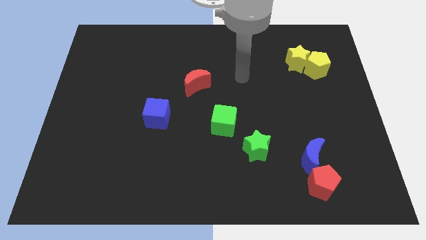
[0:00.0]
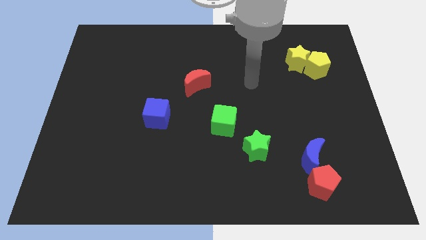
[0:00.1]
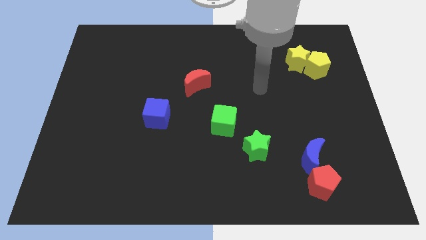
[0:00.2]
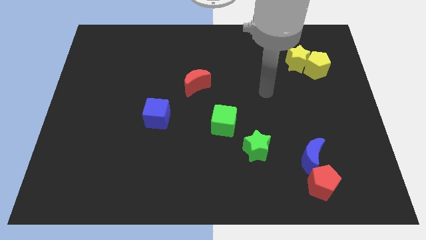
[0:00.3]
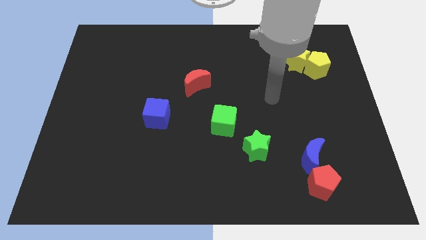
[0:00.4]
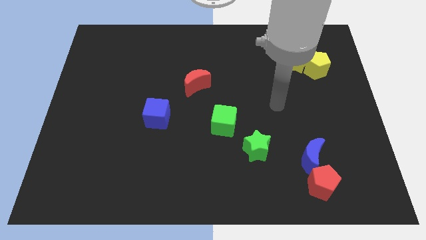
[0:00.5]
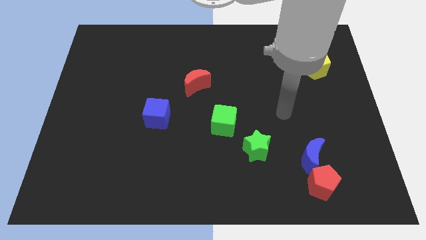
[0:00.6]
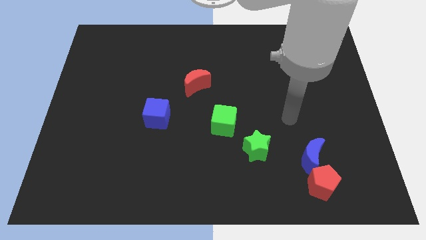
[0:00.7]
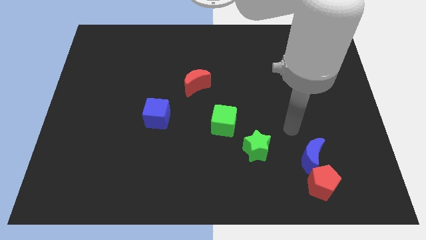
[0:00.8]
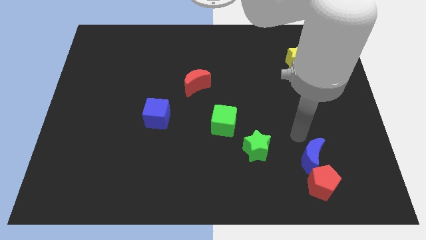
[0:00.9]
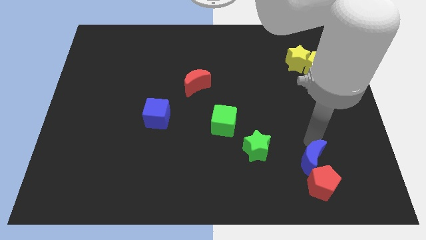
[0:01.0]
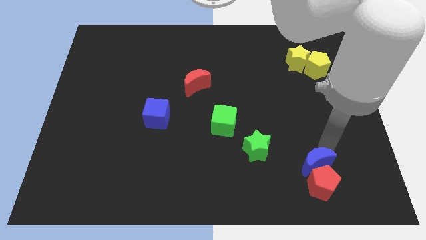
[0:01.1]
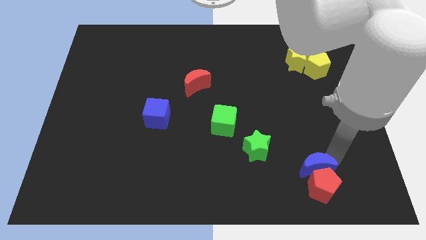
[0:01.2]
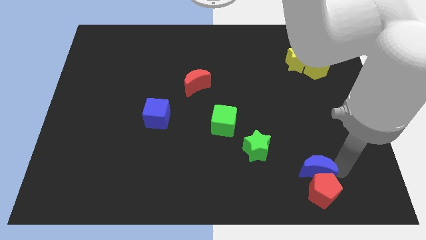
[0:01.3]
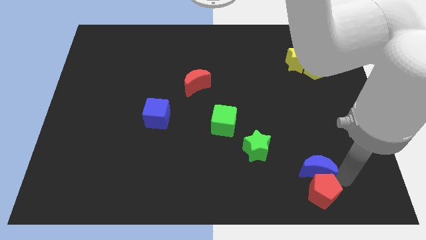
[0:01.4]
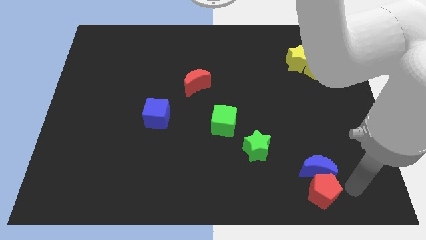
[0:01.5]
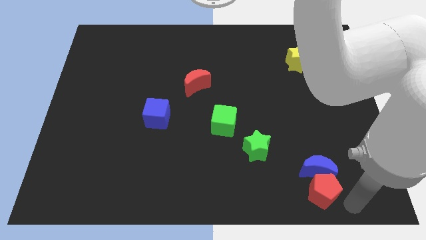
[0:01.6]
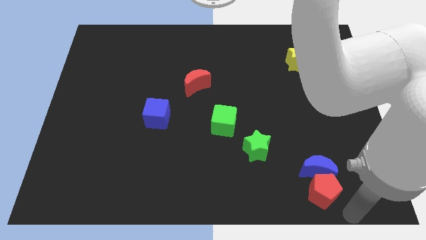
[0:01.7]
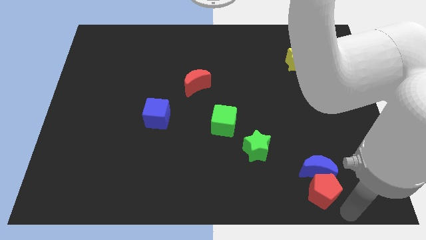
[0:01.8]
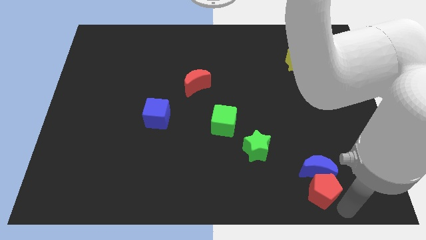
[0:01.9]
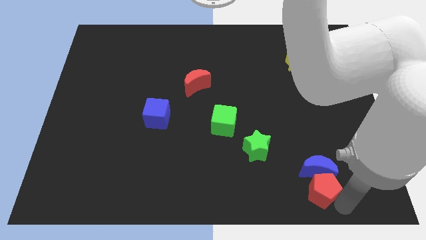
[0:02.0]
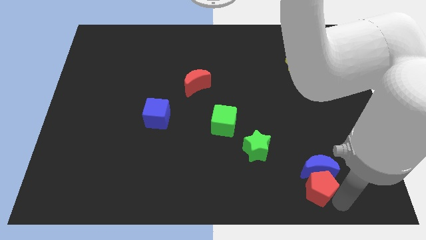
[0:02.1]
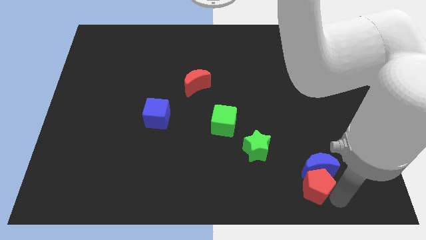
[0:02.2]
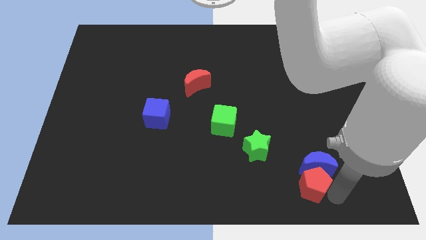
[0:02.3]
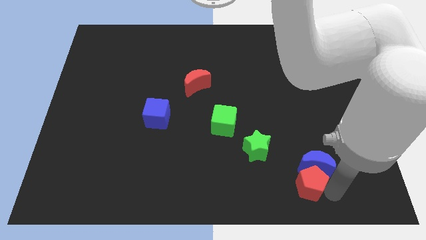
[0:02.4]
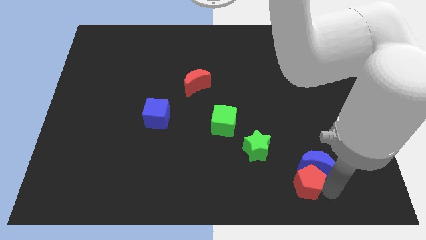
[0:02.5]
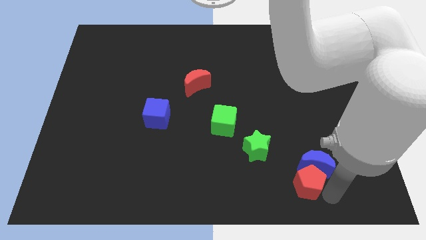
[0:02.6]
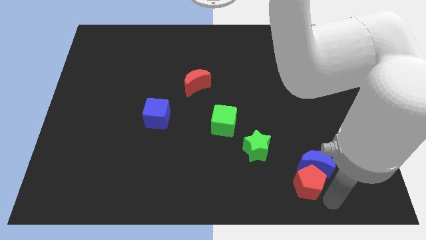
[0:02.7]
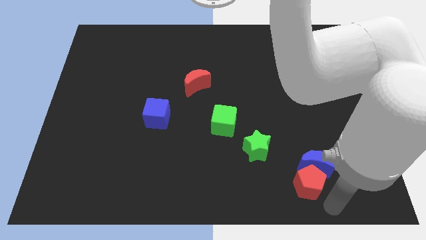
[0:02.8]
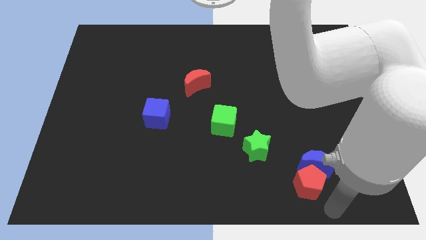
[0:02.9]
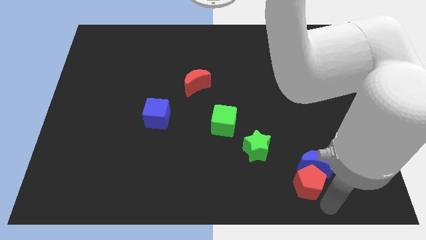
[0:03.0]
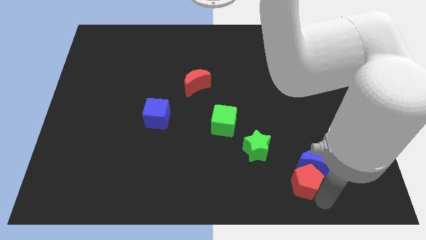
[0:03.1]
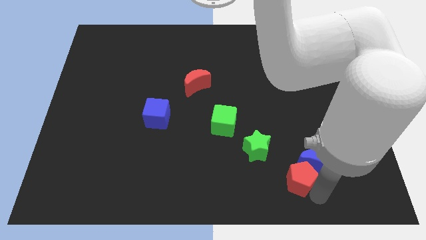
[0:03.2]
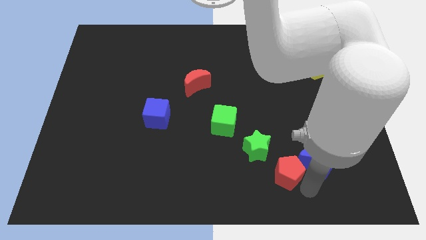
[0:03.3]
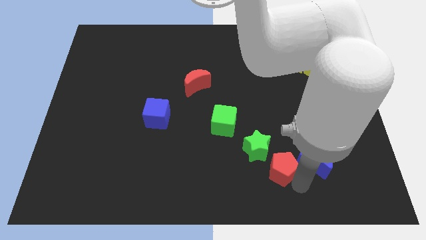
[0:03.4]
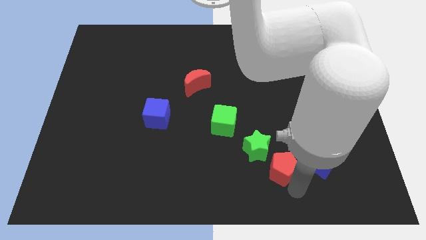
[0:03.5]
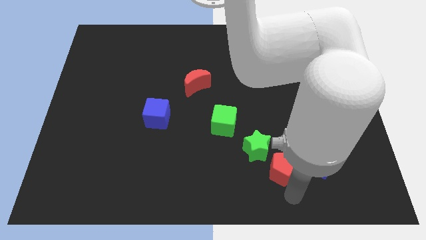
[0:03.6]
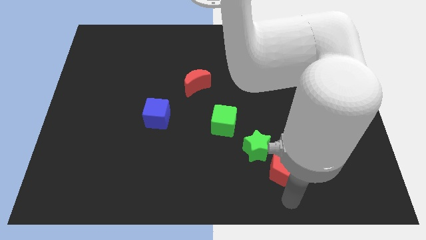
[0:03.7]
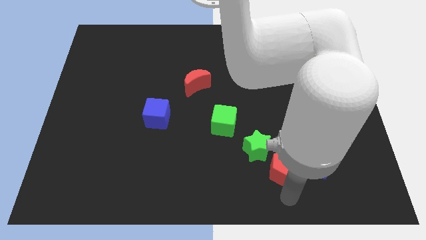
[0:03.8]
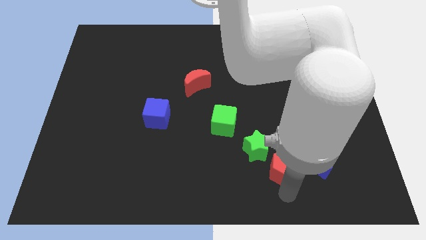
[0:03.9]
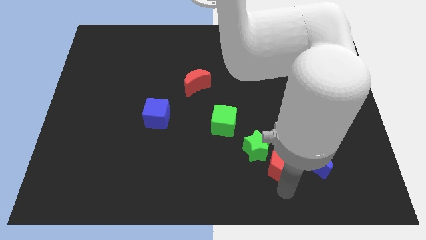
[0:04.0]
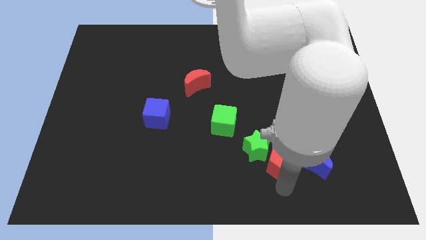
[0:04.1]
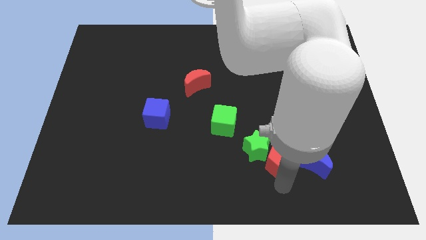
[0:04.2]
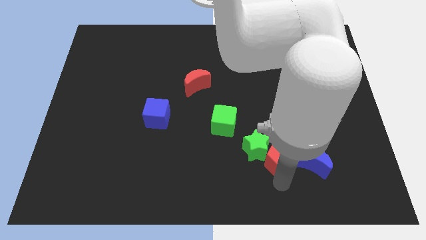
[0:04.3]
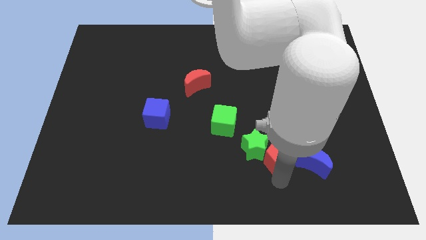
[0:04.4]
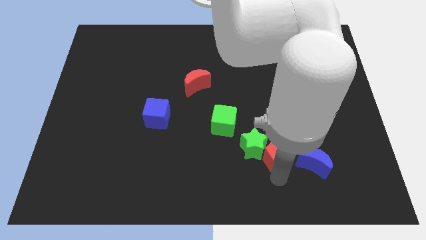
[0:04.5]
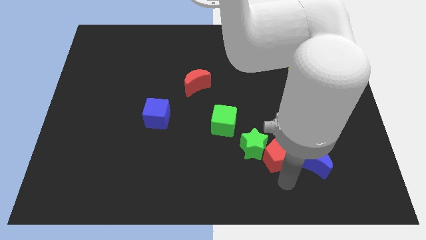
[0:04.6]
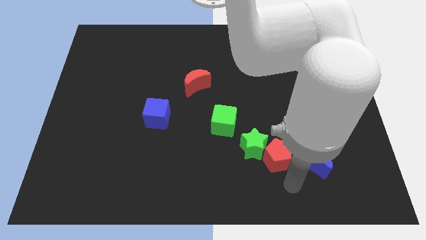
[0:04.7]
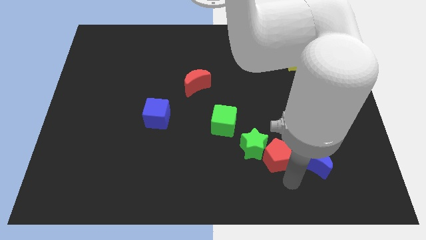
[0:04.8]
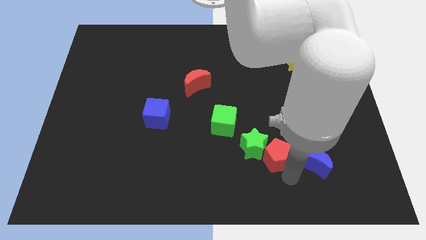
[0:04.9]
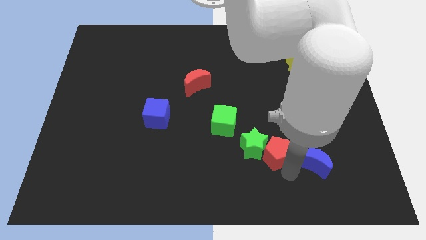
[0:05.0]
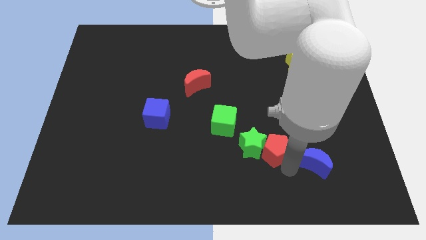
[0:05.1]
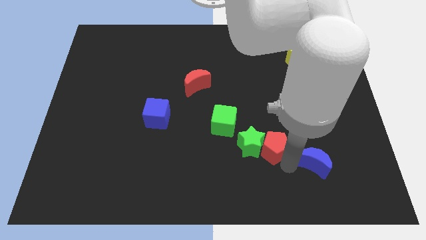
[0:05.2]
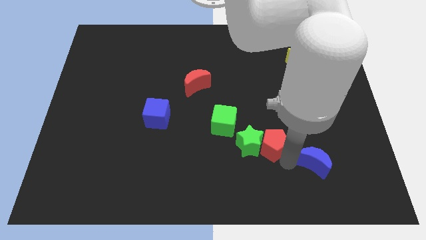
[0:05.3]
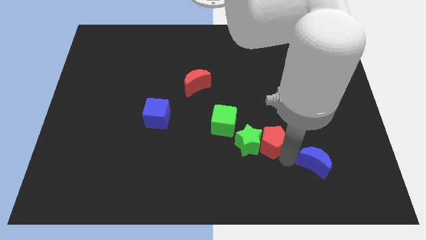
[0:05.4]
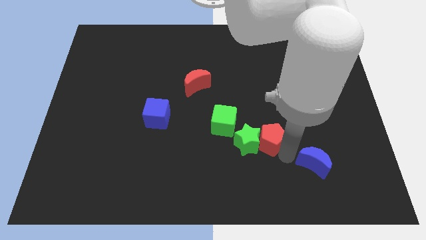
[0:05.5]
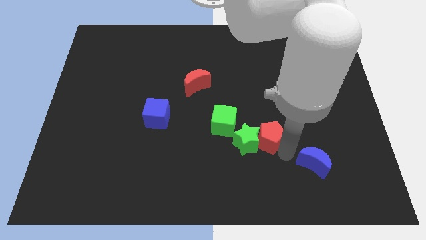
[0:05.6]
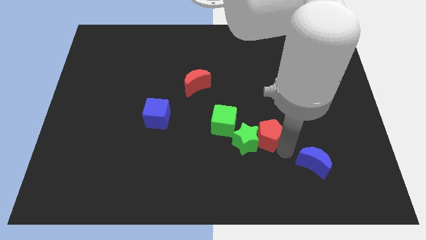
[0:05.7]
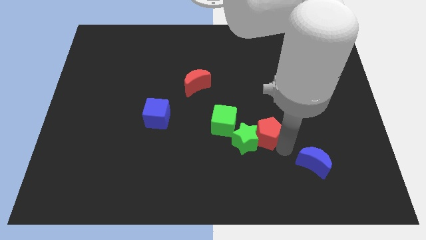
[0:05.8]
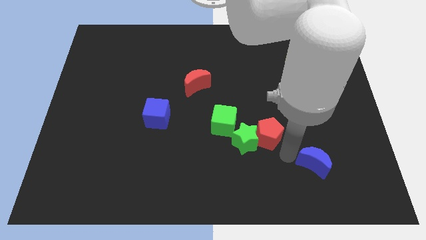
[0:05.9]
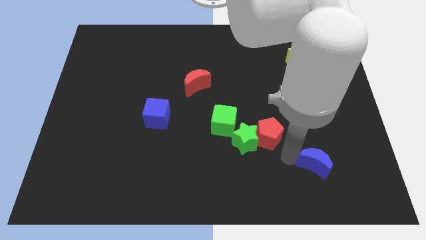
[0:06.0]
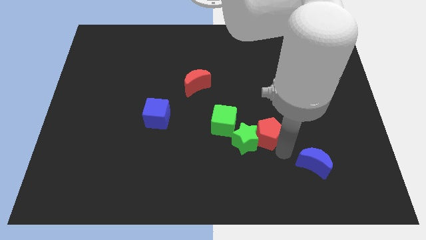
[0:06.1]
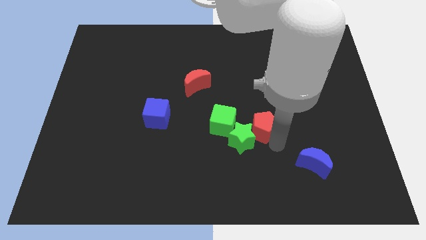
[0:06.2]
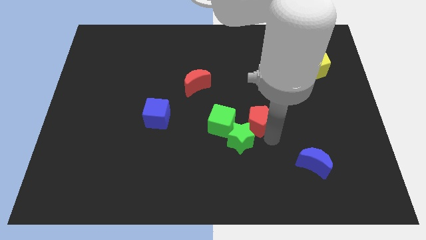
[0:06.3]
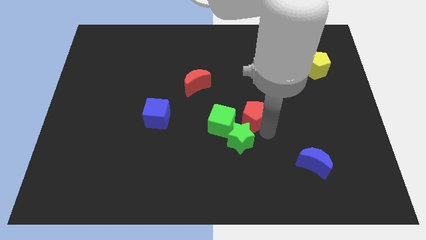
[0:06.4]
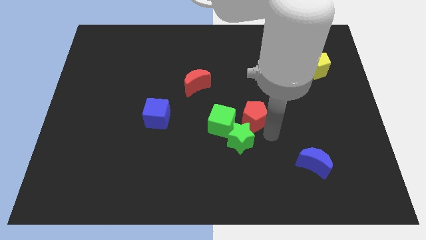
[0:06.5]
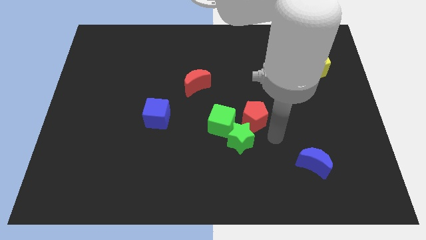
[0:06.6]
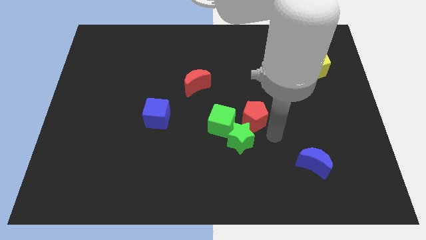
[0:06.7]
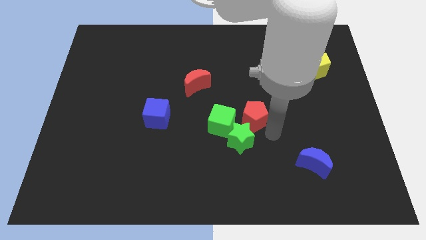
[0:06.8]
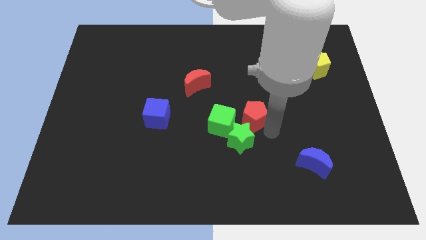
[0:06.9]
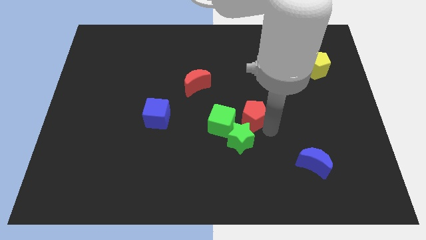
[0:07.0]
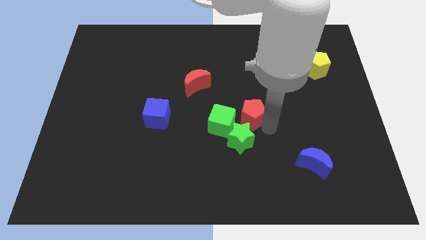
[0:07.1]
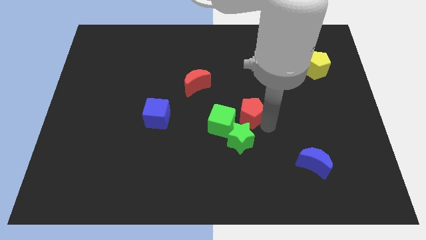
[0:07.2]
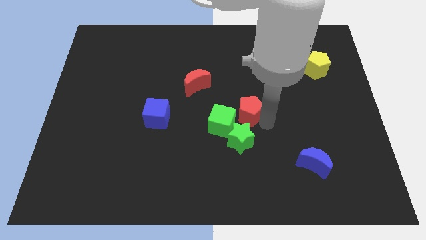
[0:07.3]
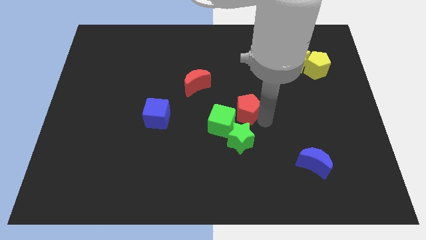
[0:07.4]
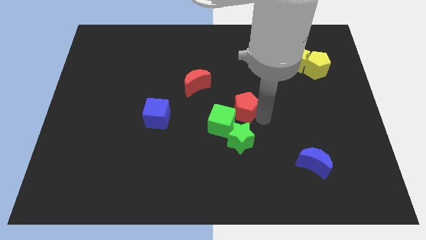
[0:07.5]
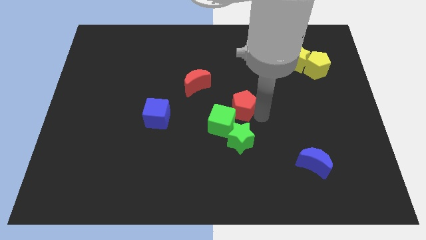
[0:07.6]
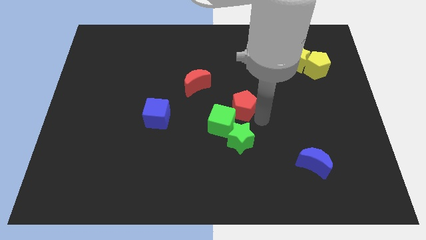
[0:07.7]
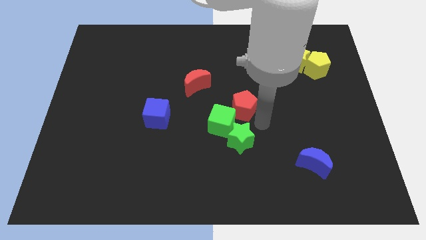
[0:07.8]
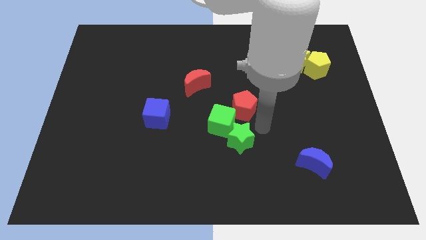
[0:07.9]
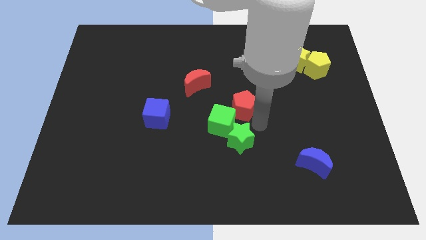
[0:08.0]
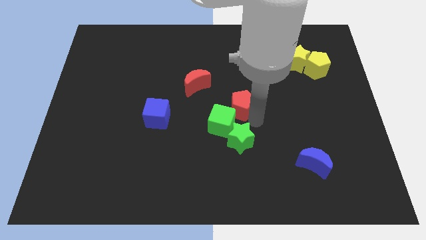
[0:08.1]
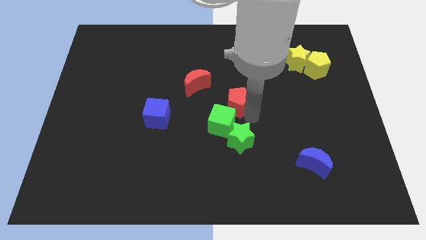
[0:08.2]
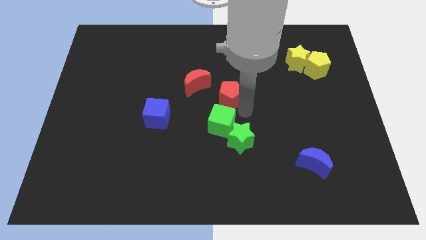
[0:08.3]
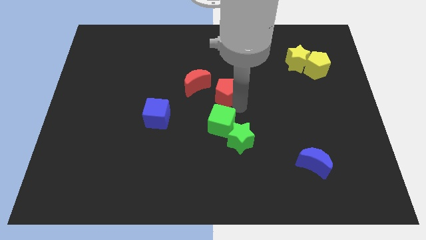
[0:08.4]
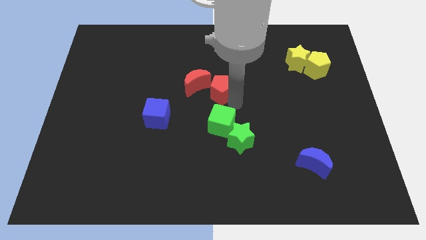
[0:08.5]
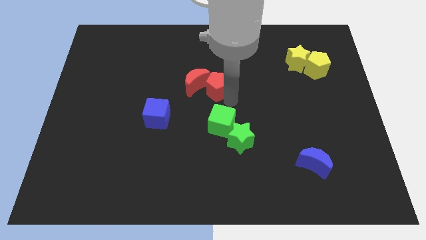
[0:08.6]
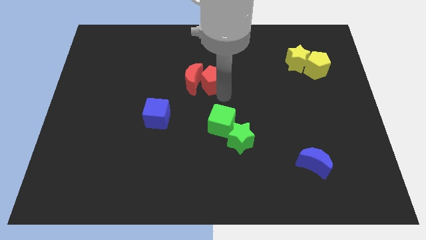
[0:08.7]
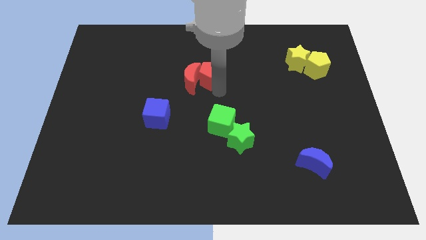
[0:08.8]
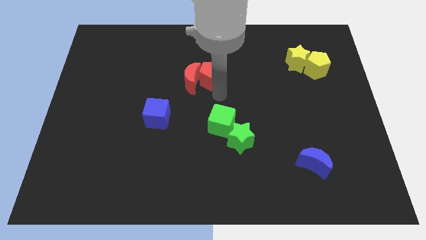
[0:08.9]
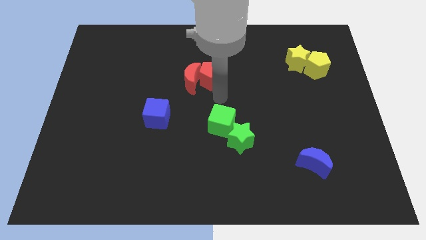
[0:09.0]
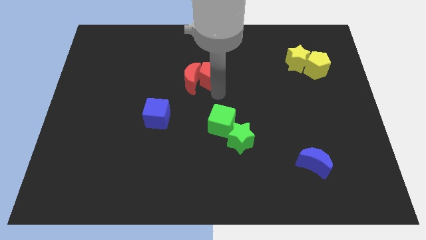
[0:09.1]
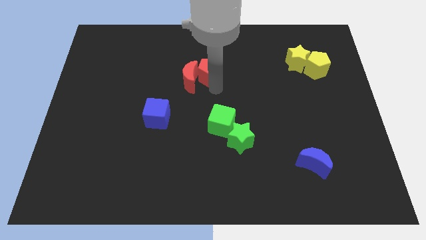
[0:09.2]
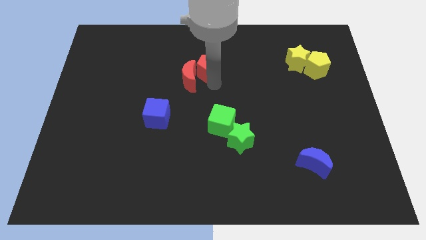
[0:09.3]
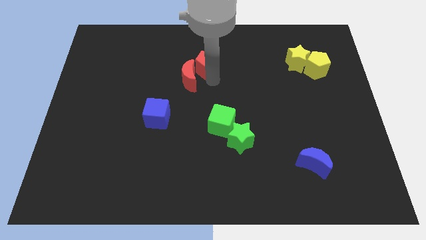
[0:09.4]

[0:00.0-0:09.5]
push the red pentagon to the top side of the red moon
